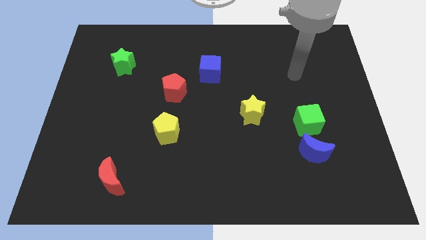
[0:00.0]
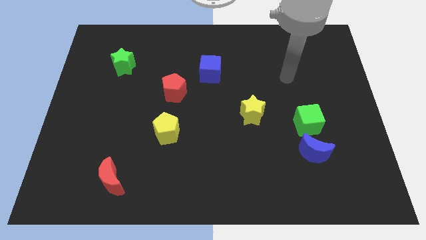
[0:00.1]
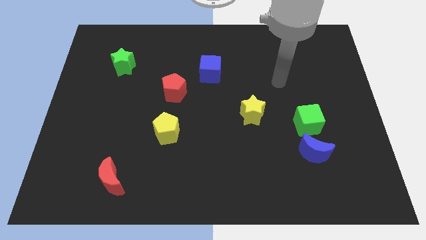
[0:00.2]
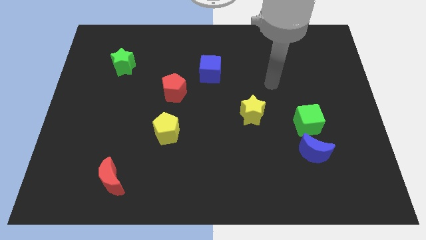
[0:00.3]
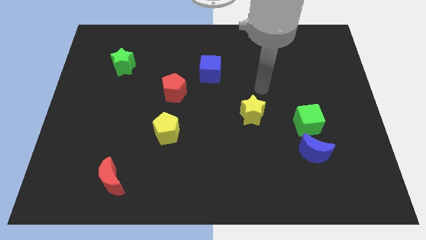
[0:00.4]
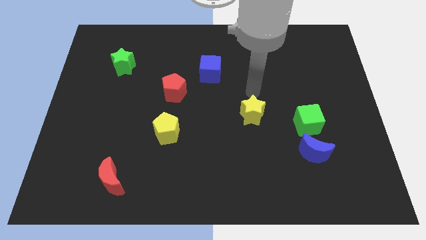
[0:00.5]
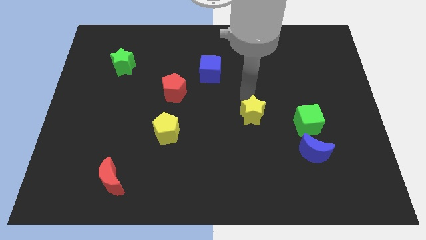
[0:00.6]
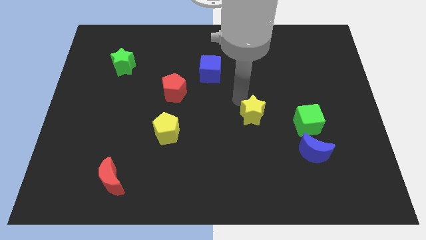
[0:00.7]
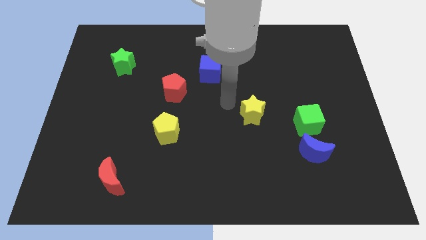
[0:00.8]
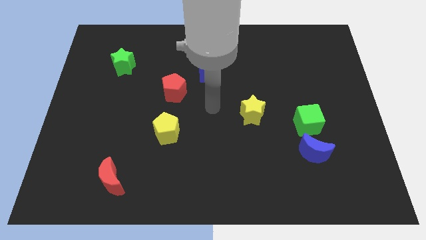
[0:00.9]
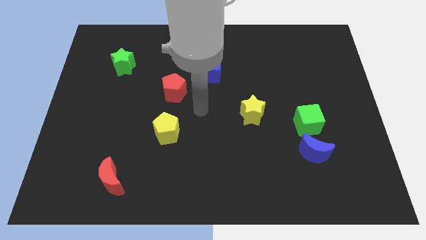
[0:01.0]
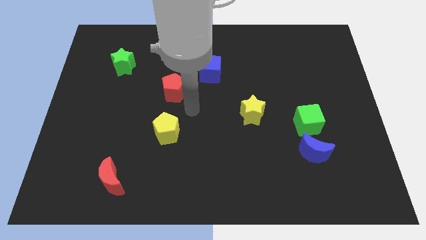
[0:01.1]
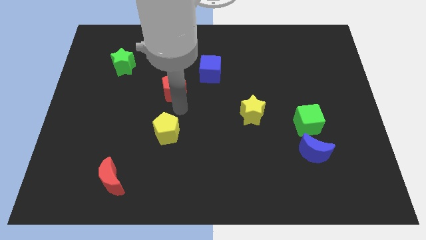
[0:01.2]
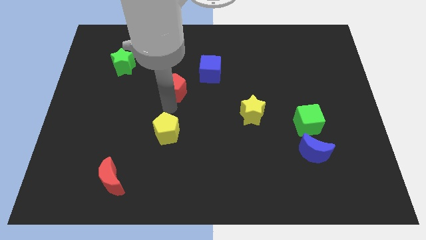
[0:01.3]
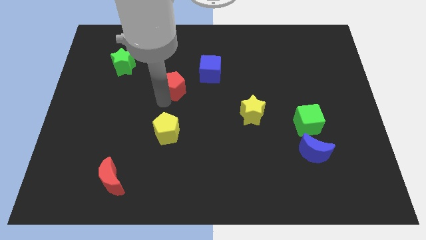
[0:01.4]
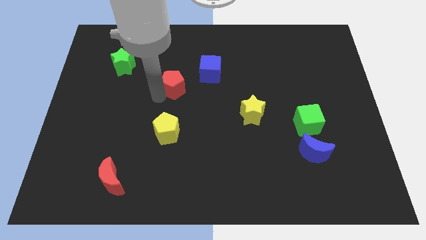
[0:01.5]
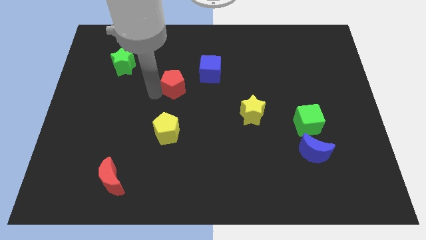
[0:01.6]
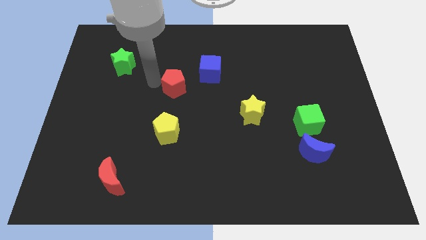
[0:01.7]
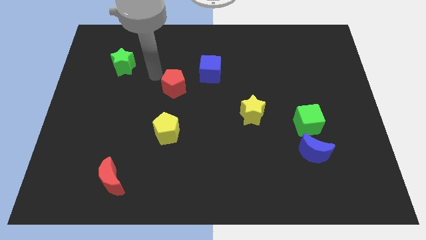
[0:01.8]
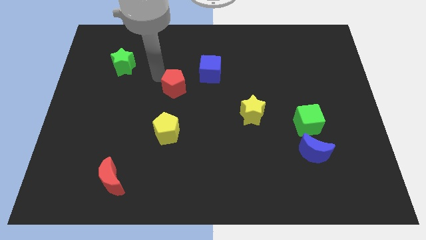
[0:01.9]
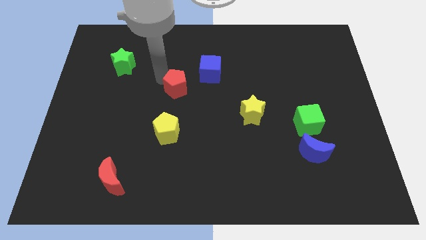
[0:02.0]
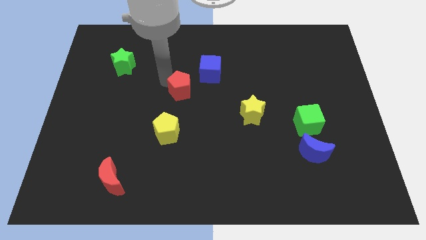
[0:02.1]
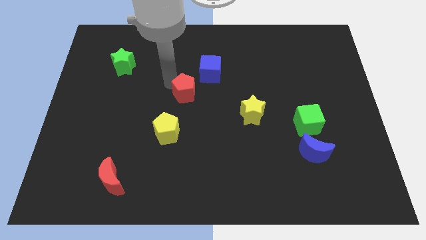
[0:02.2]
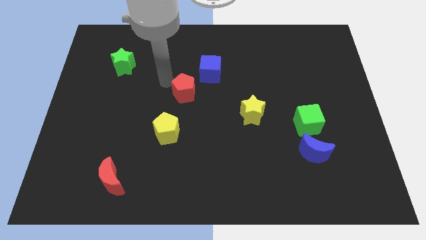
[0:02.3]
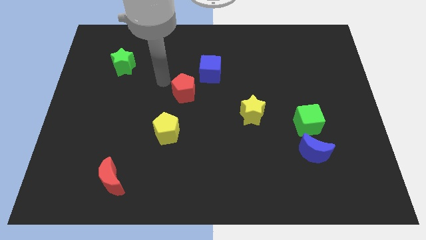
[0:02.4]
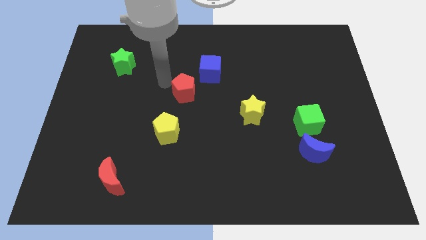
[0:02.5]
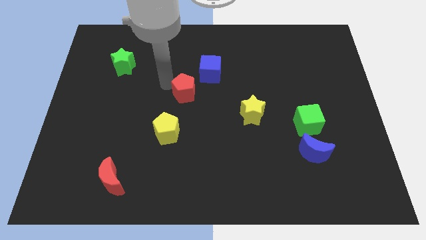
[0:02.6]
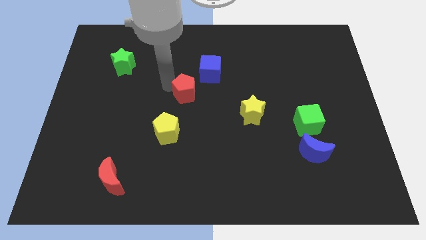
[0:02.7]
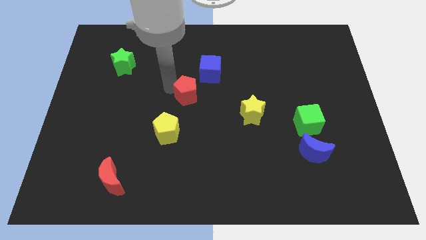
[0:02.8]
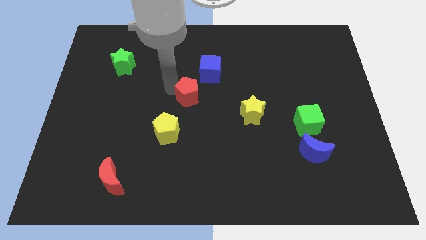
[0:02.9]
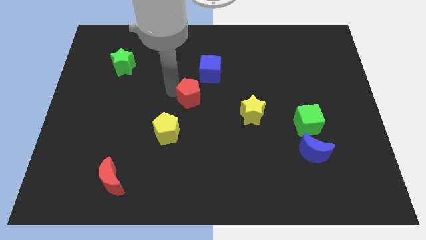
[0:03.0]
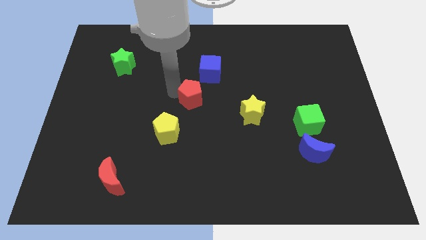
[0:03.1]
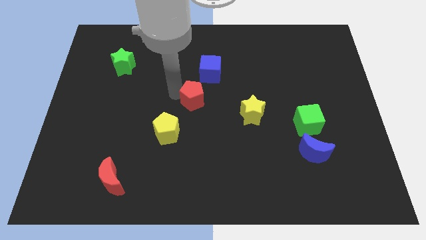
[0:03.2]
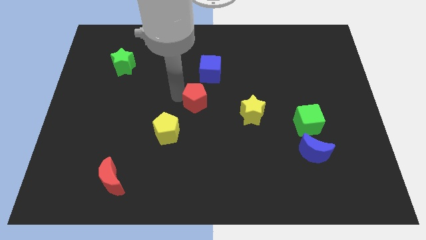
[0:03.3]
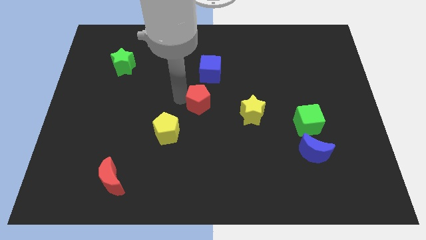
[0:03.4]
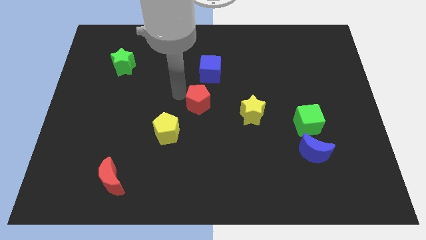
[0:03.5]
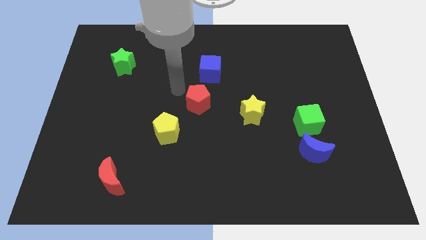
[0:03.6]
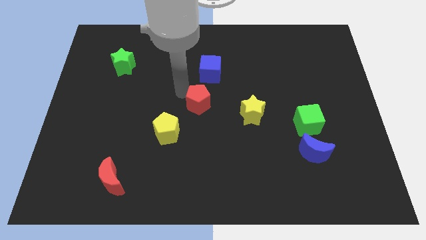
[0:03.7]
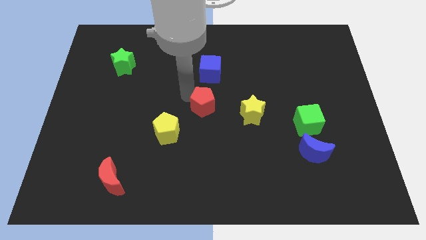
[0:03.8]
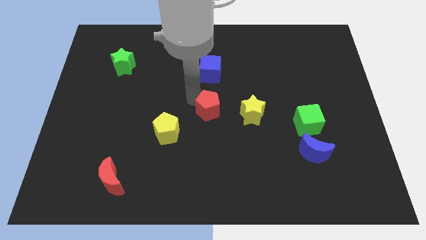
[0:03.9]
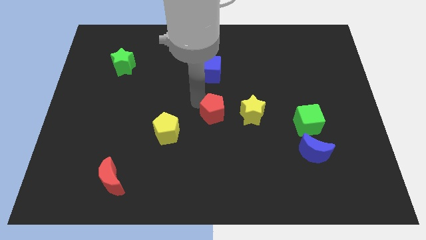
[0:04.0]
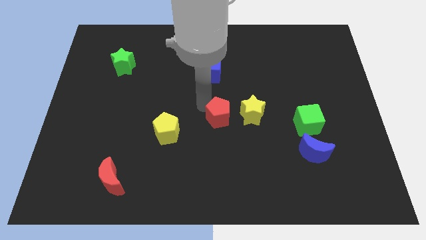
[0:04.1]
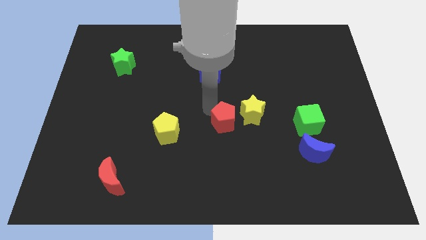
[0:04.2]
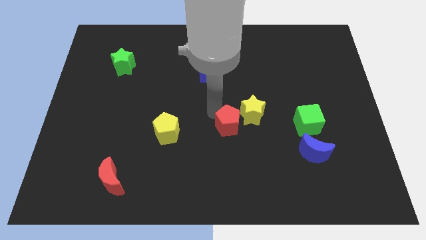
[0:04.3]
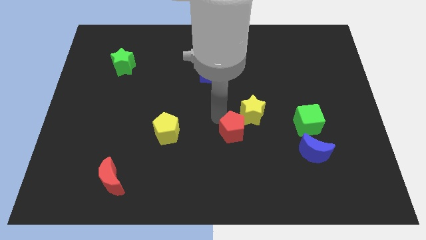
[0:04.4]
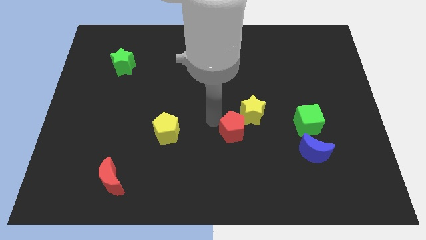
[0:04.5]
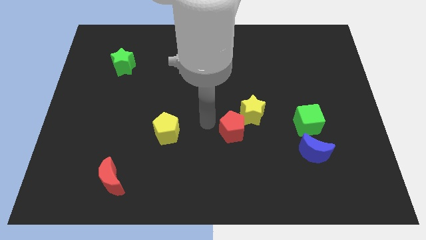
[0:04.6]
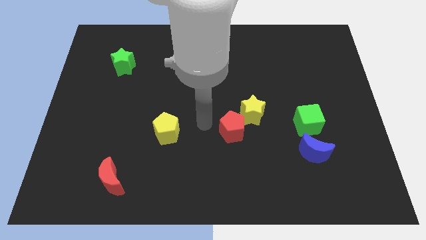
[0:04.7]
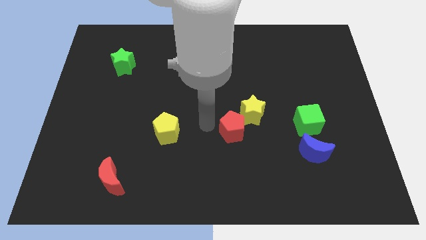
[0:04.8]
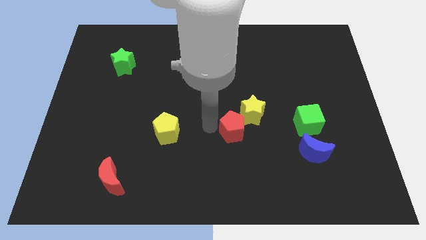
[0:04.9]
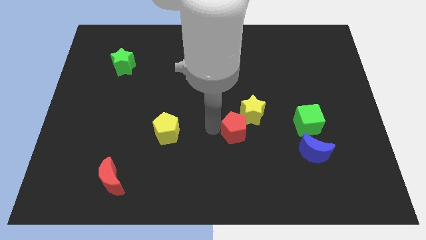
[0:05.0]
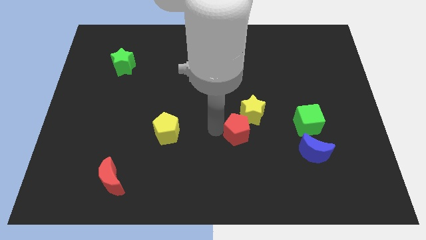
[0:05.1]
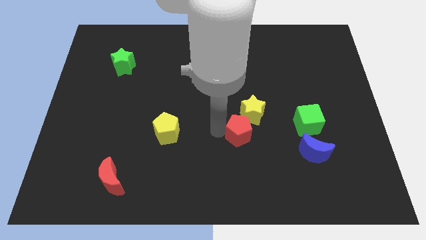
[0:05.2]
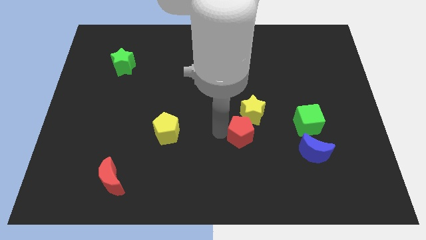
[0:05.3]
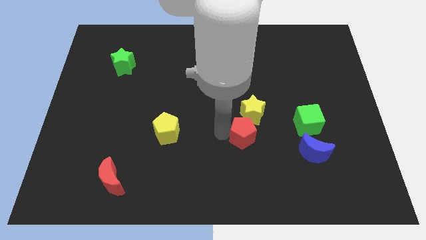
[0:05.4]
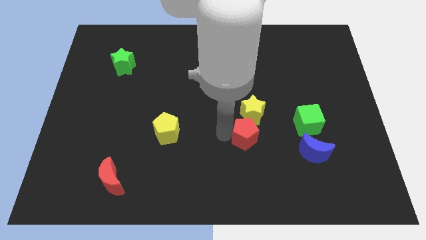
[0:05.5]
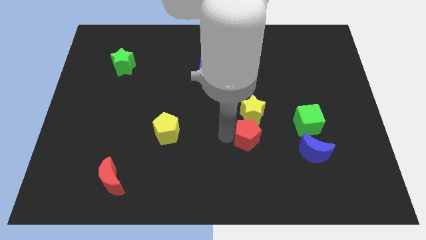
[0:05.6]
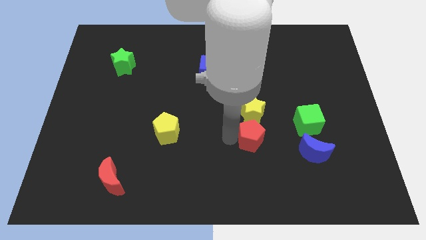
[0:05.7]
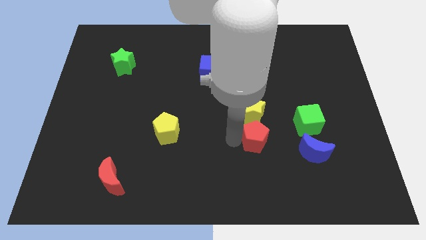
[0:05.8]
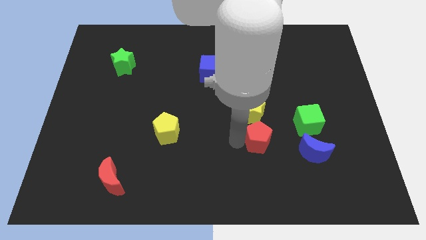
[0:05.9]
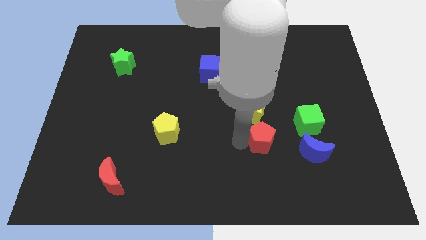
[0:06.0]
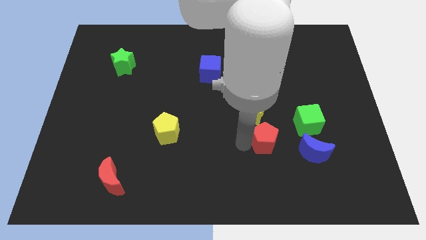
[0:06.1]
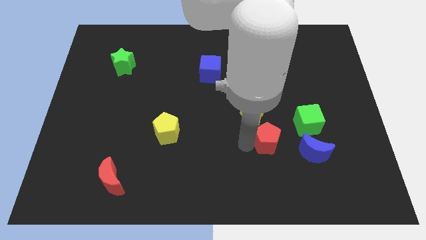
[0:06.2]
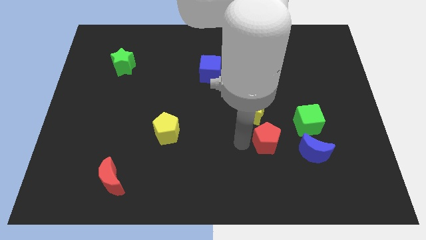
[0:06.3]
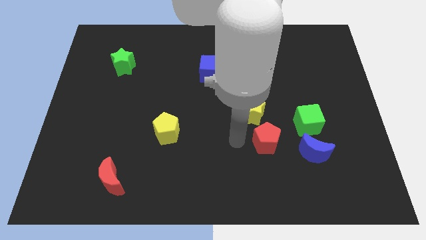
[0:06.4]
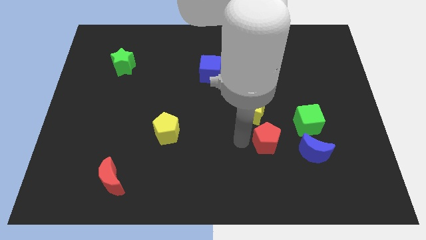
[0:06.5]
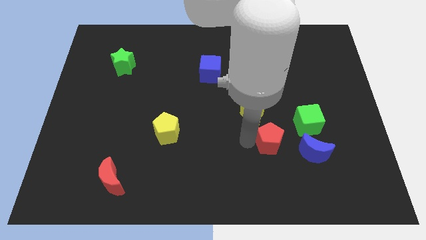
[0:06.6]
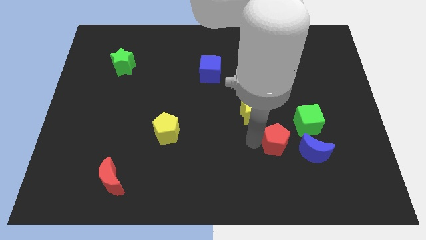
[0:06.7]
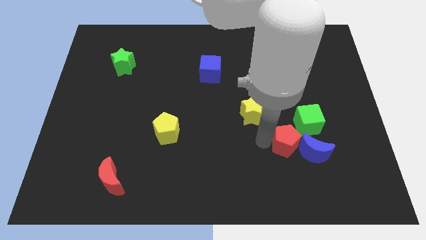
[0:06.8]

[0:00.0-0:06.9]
push the red pentagon close to the blue moon

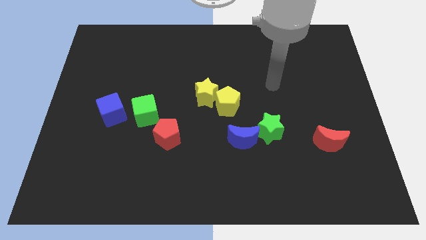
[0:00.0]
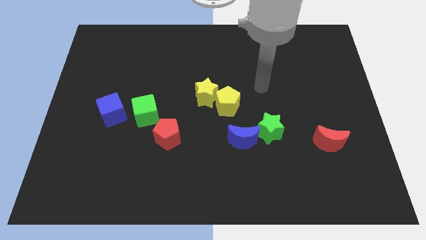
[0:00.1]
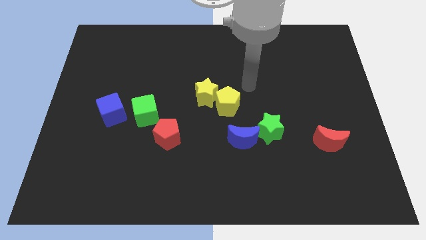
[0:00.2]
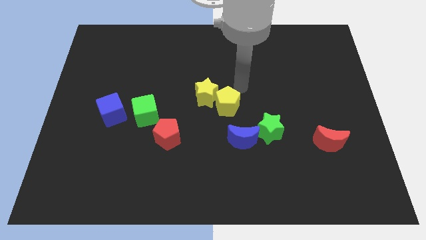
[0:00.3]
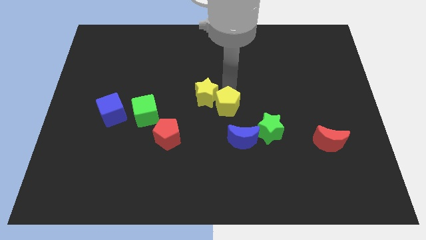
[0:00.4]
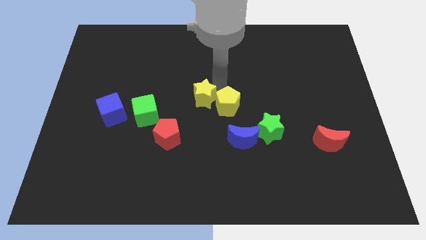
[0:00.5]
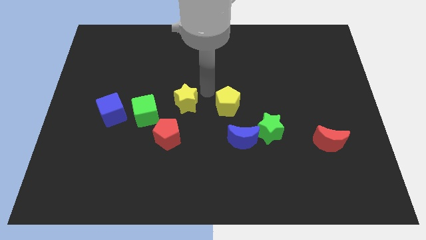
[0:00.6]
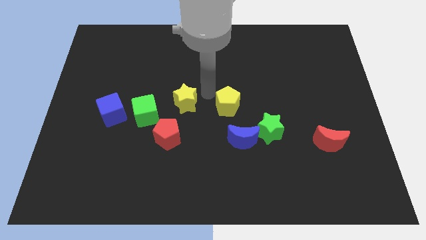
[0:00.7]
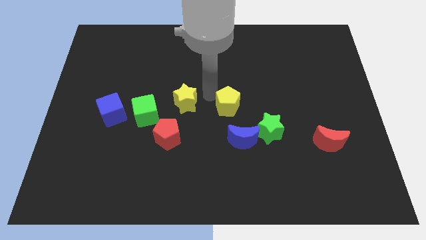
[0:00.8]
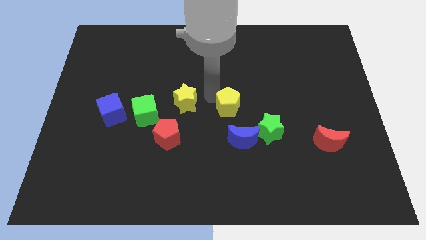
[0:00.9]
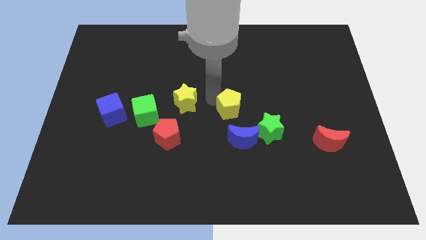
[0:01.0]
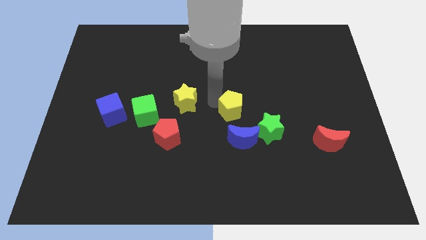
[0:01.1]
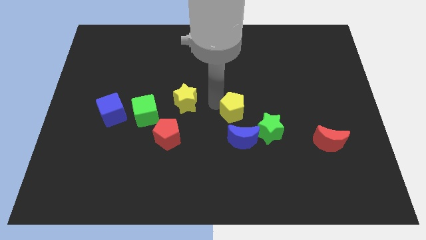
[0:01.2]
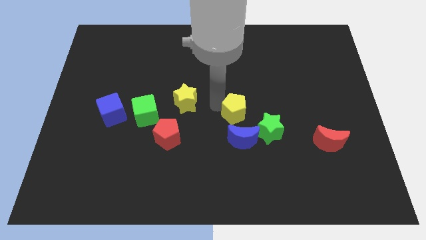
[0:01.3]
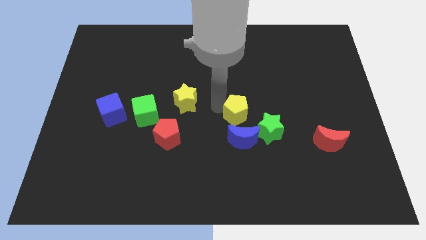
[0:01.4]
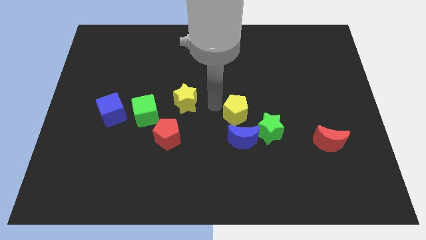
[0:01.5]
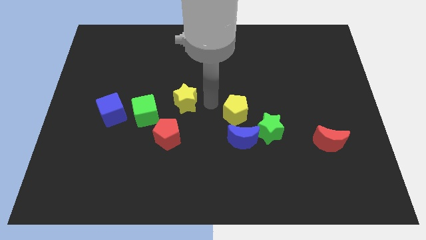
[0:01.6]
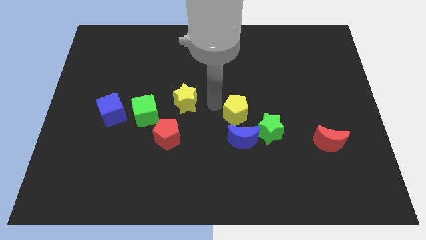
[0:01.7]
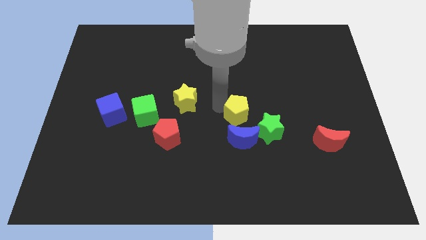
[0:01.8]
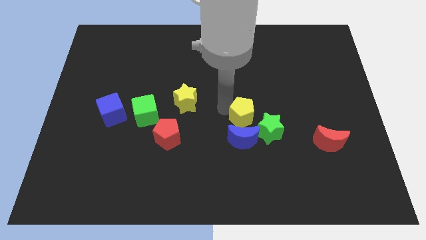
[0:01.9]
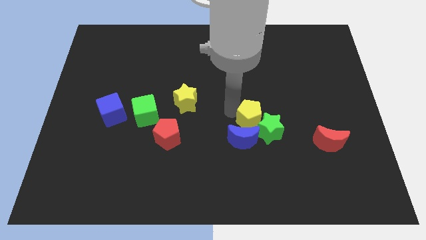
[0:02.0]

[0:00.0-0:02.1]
push the yellow pentagon to the green star
